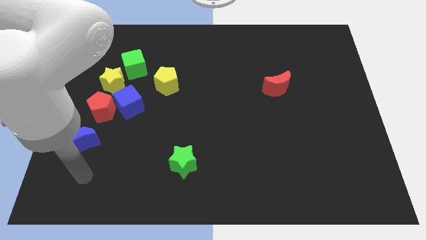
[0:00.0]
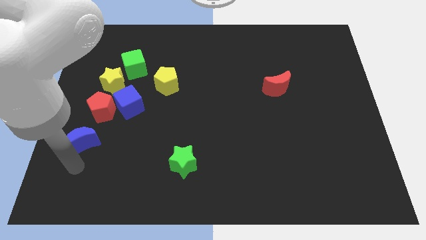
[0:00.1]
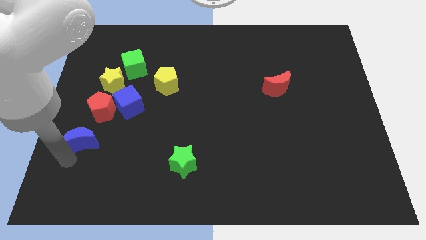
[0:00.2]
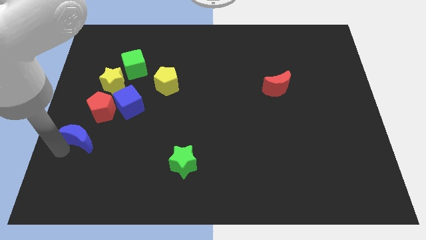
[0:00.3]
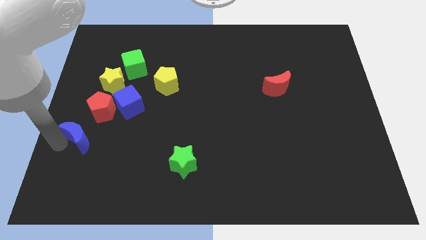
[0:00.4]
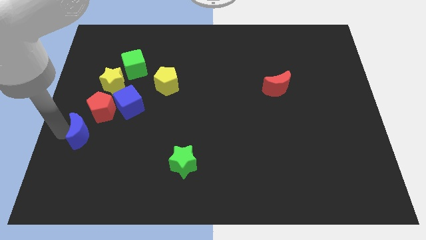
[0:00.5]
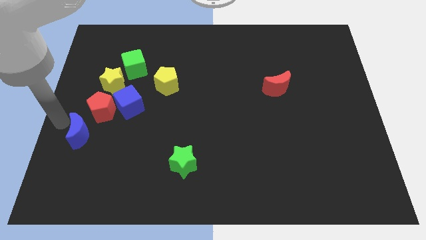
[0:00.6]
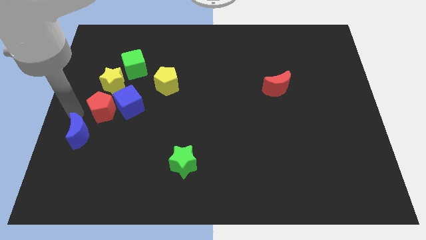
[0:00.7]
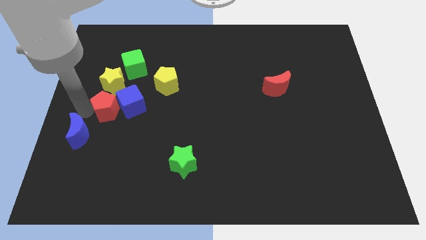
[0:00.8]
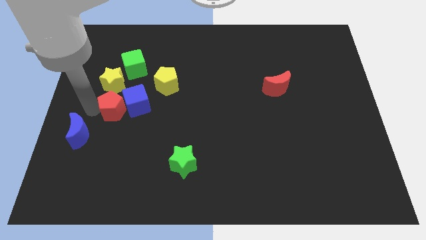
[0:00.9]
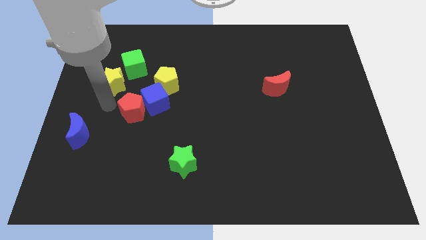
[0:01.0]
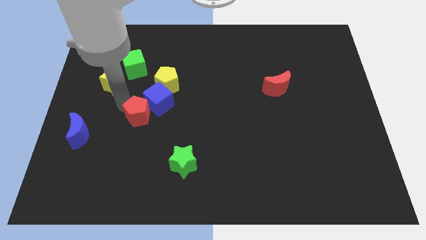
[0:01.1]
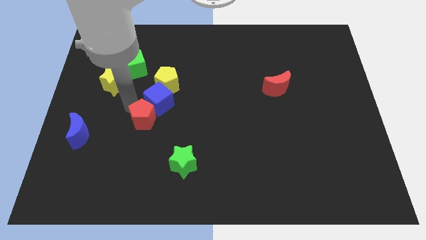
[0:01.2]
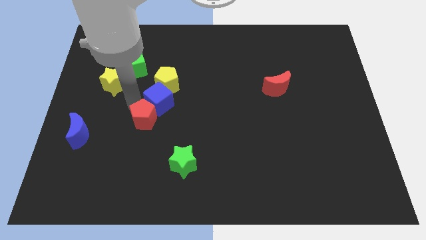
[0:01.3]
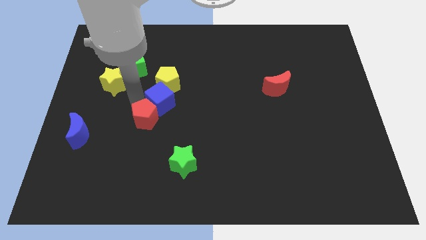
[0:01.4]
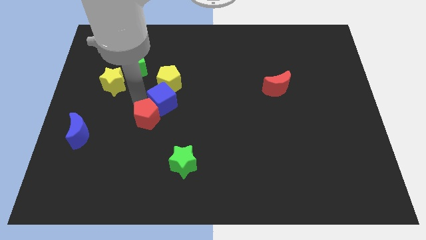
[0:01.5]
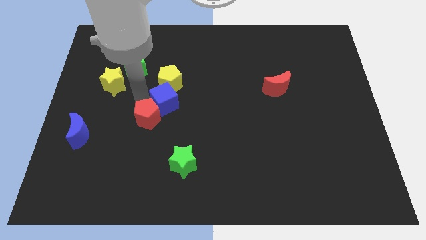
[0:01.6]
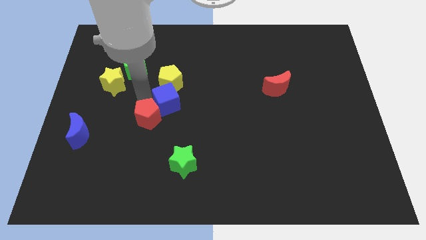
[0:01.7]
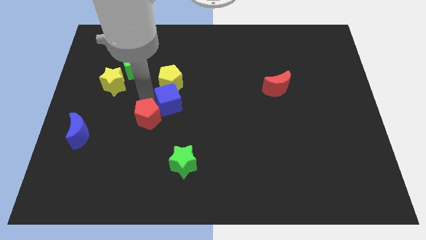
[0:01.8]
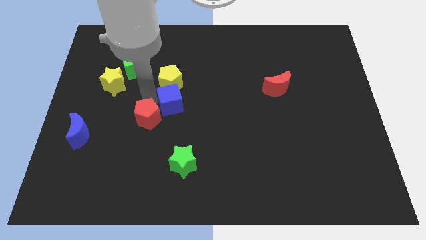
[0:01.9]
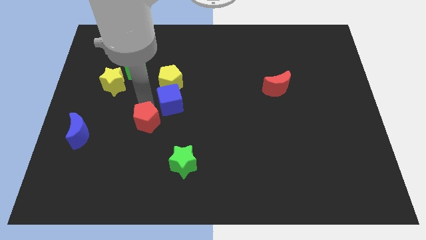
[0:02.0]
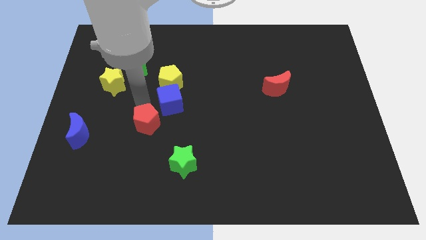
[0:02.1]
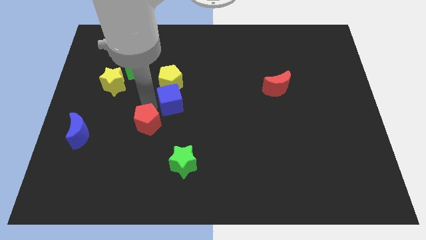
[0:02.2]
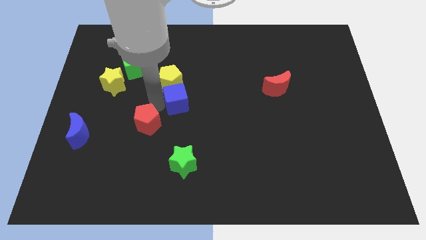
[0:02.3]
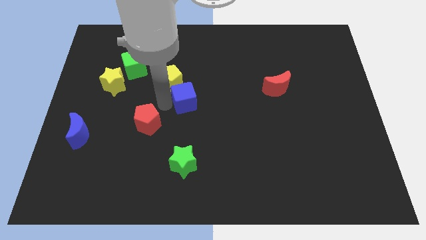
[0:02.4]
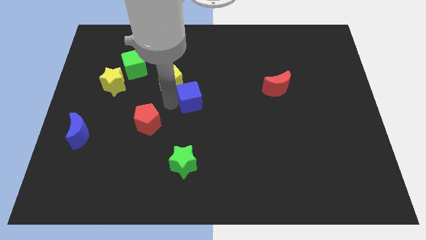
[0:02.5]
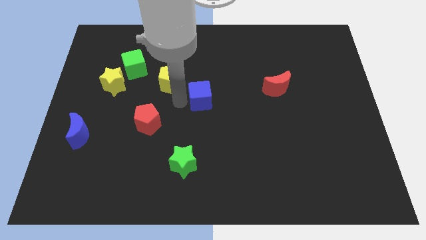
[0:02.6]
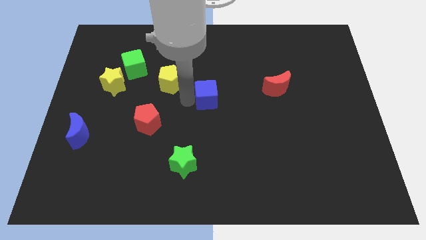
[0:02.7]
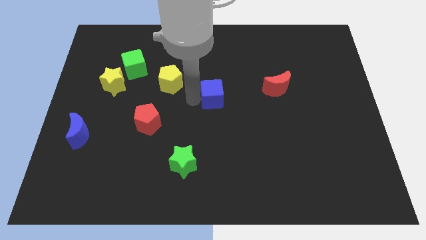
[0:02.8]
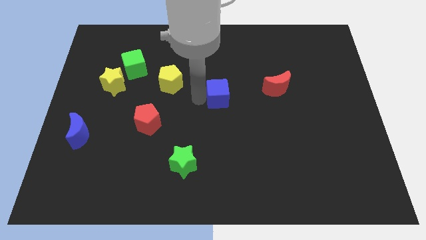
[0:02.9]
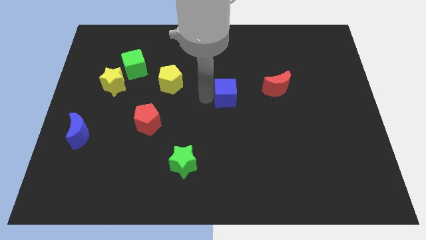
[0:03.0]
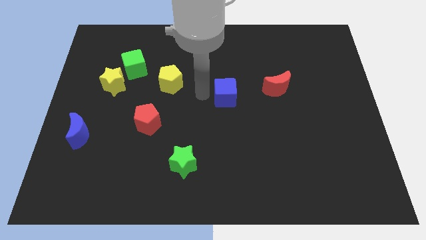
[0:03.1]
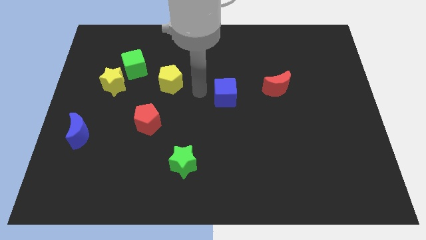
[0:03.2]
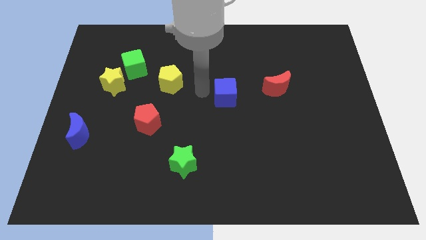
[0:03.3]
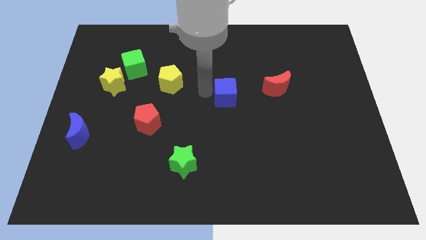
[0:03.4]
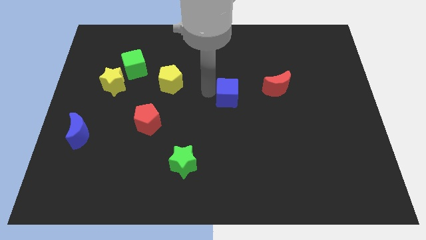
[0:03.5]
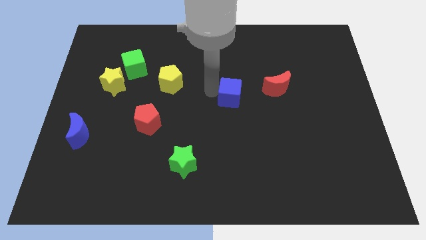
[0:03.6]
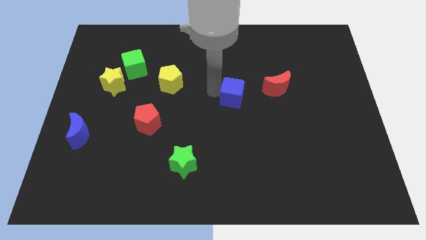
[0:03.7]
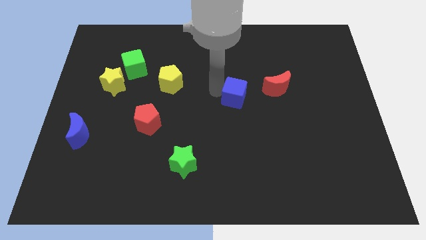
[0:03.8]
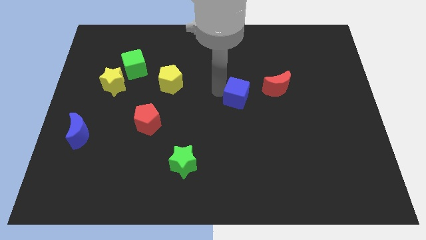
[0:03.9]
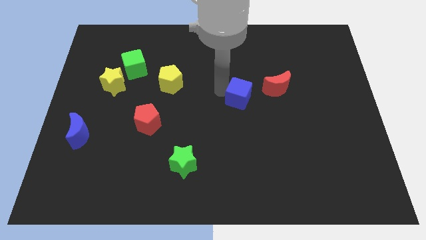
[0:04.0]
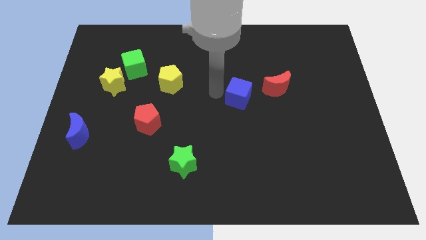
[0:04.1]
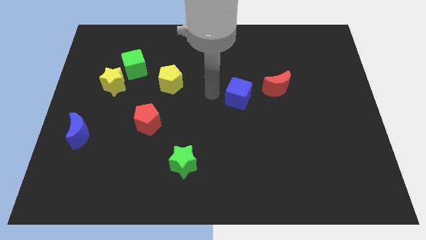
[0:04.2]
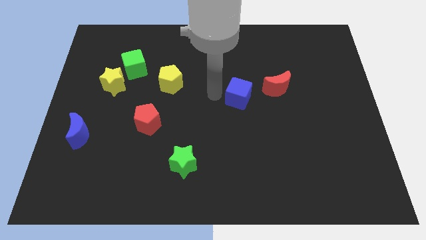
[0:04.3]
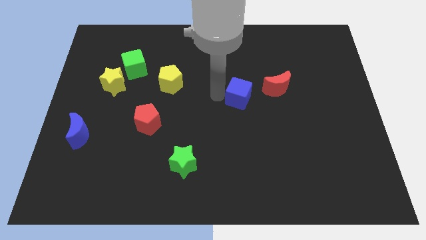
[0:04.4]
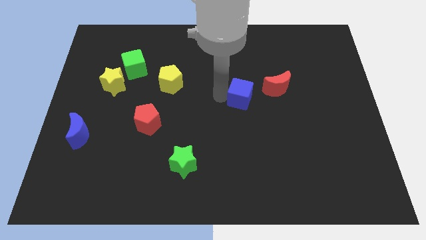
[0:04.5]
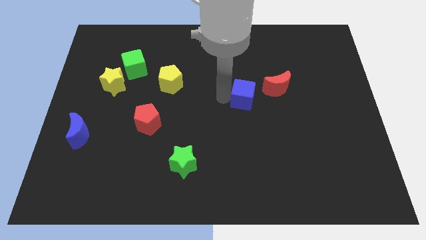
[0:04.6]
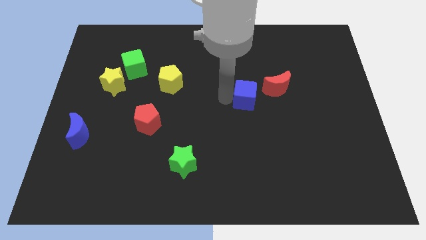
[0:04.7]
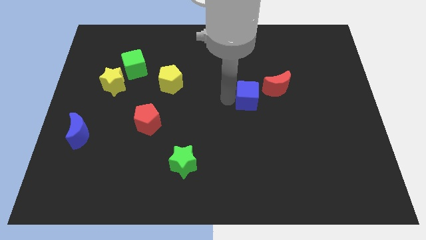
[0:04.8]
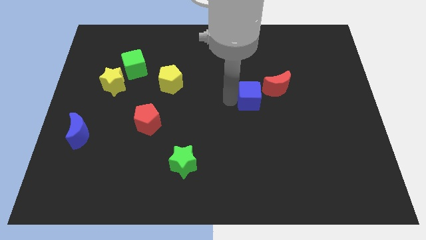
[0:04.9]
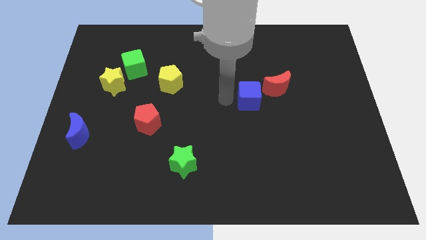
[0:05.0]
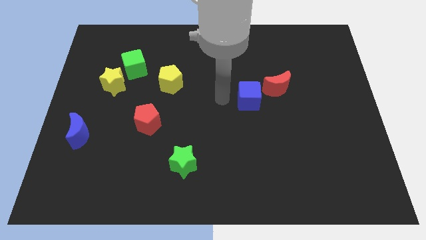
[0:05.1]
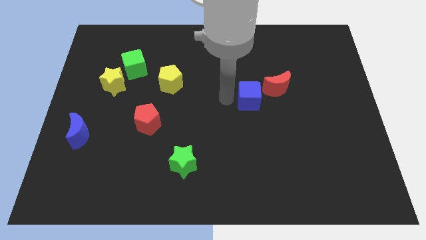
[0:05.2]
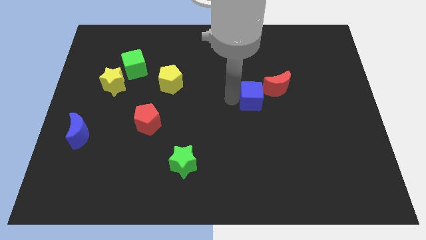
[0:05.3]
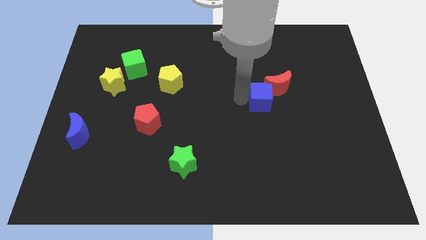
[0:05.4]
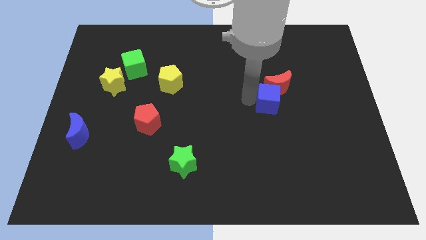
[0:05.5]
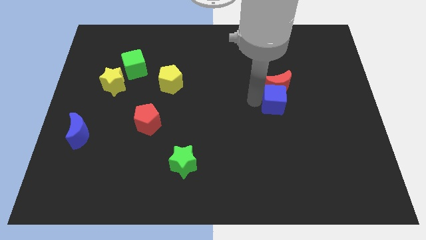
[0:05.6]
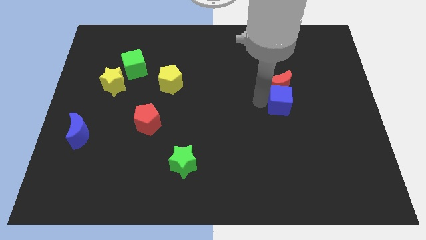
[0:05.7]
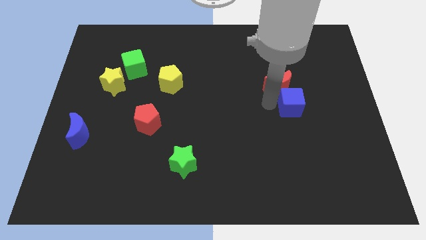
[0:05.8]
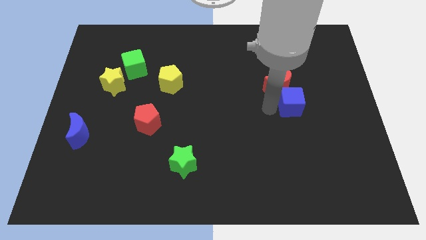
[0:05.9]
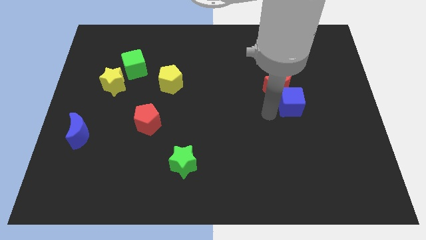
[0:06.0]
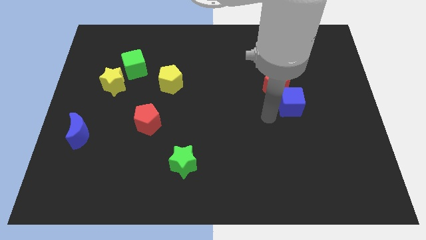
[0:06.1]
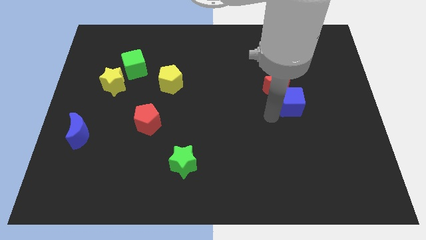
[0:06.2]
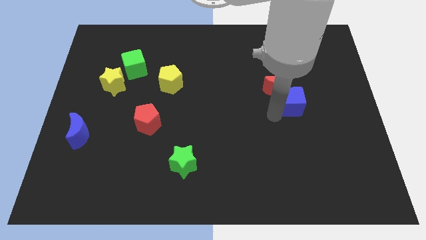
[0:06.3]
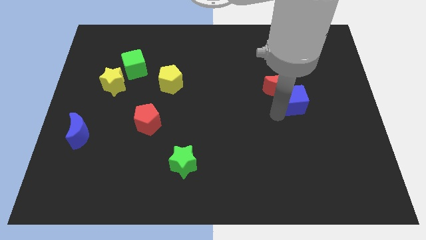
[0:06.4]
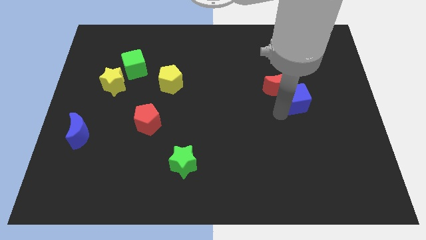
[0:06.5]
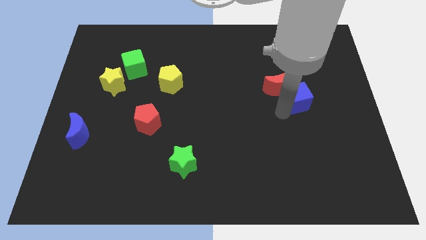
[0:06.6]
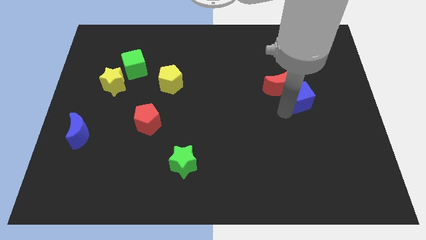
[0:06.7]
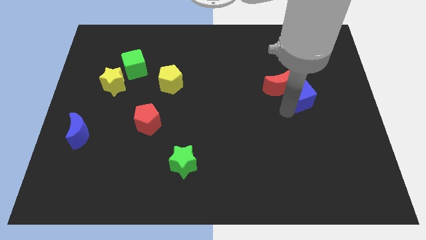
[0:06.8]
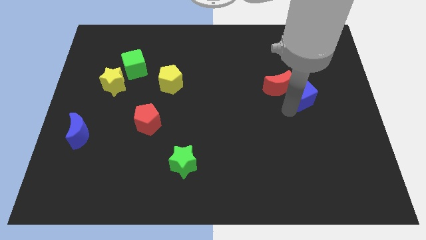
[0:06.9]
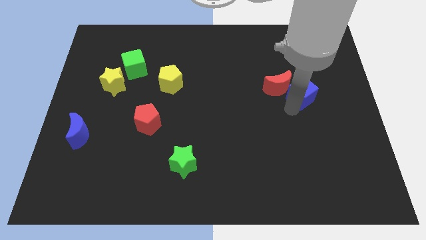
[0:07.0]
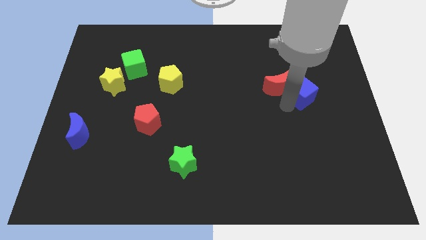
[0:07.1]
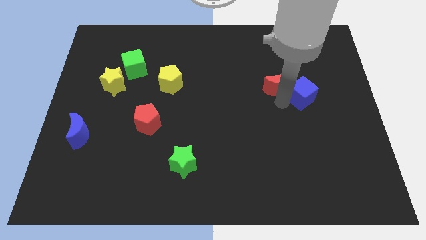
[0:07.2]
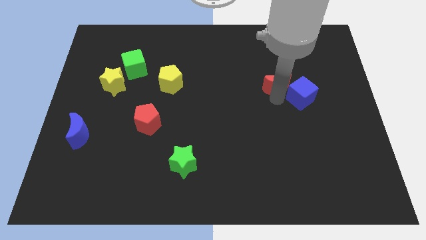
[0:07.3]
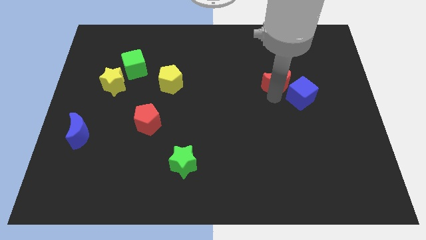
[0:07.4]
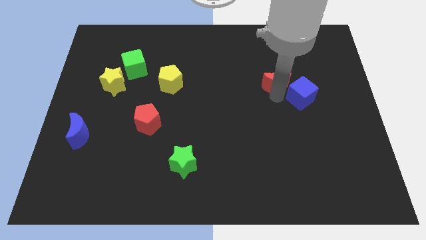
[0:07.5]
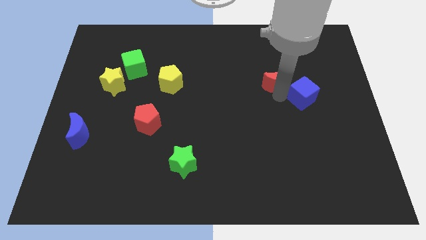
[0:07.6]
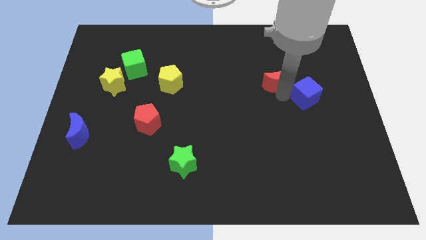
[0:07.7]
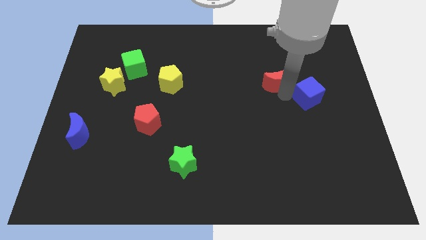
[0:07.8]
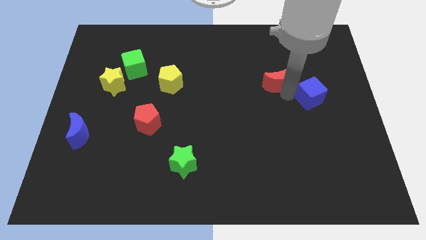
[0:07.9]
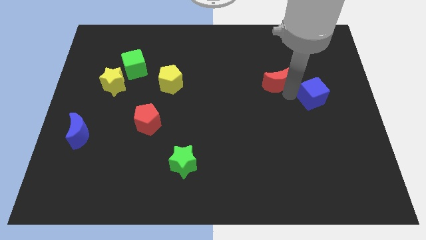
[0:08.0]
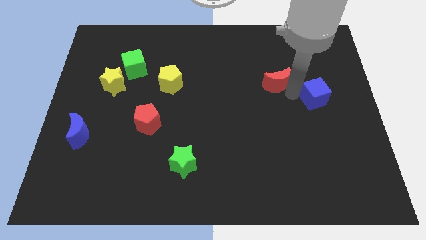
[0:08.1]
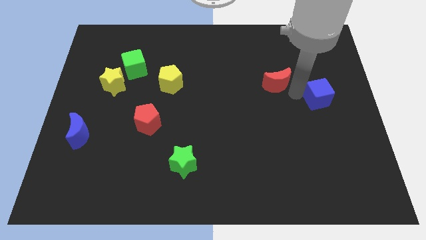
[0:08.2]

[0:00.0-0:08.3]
put the blue cube to the right side of the board
